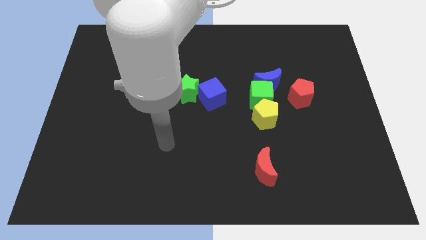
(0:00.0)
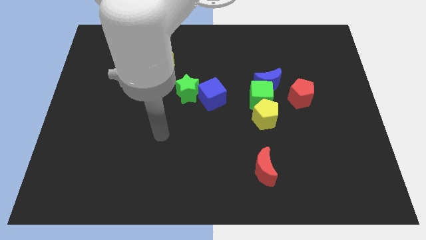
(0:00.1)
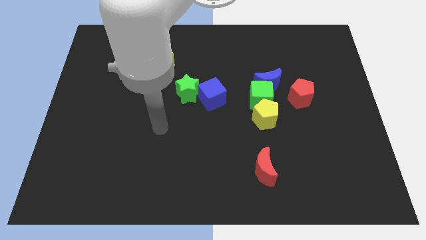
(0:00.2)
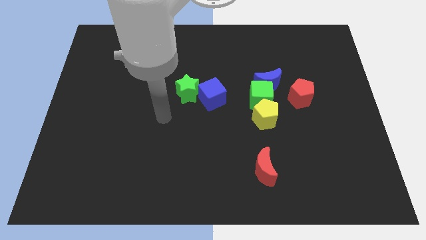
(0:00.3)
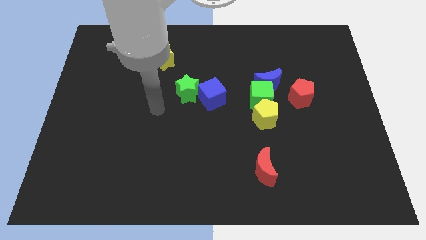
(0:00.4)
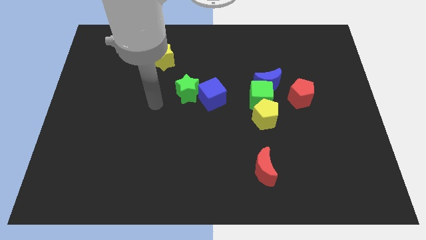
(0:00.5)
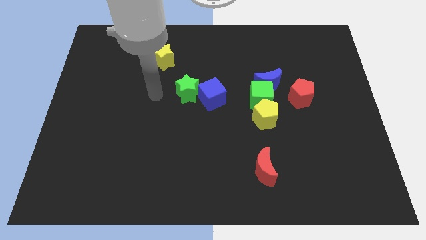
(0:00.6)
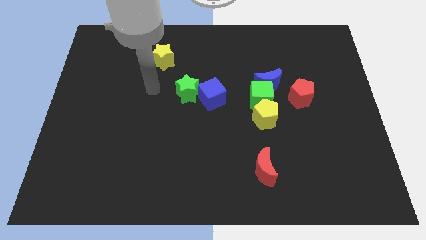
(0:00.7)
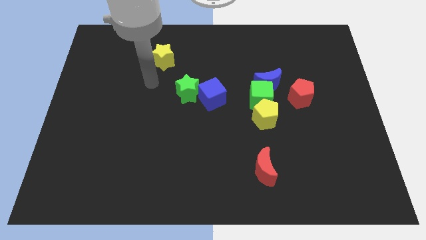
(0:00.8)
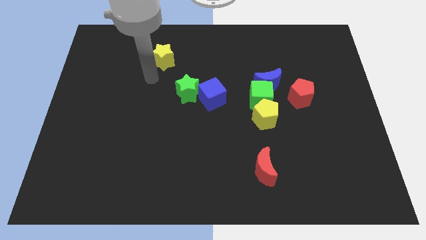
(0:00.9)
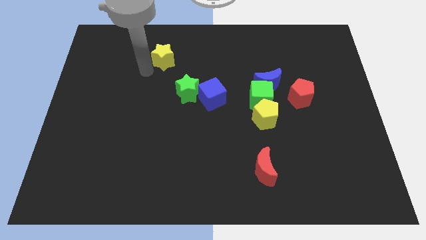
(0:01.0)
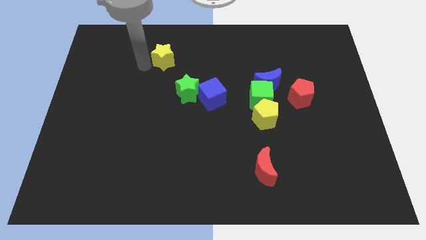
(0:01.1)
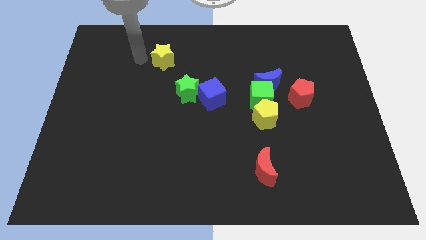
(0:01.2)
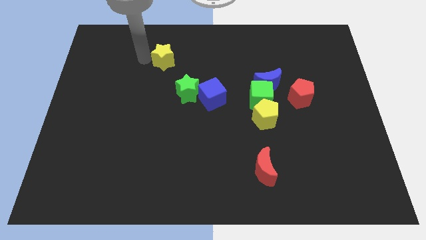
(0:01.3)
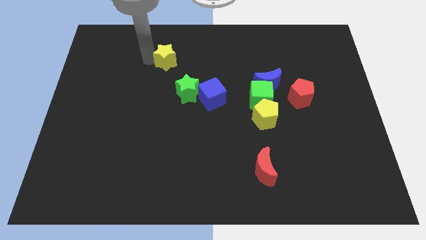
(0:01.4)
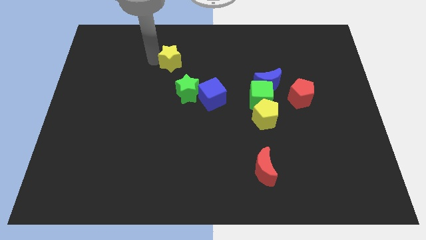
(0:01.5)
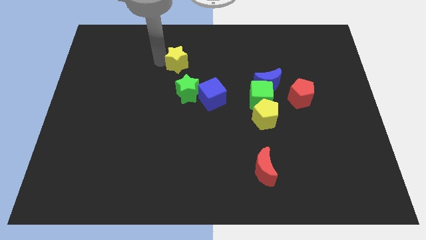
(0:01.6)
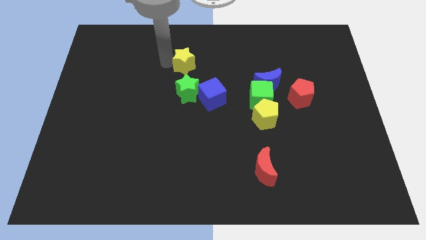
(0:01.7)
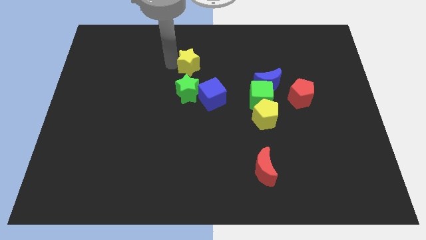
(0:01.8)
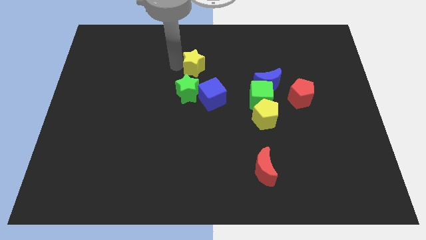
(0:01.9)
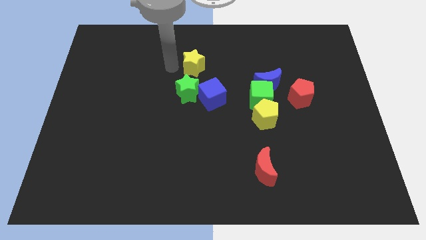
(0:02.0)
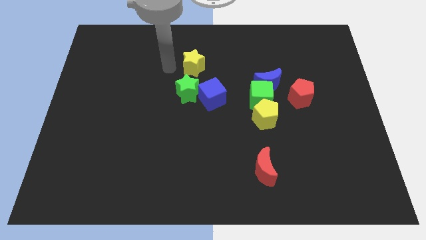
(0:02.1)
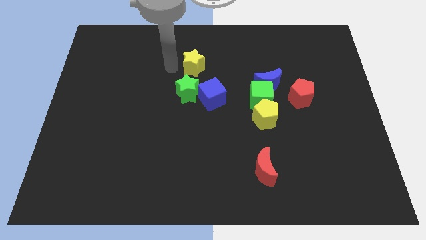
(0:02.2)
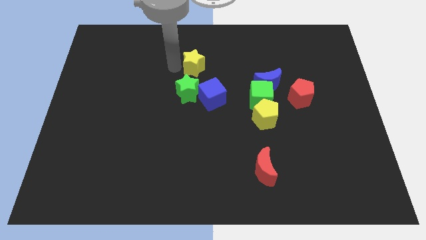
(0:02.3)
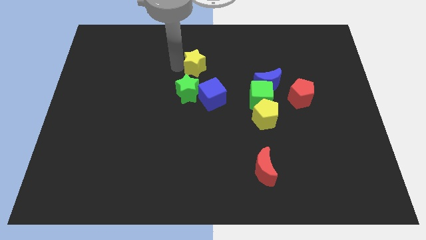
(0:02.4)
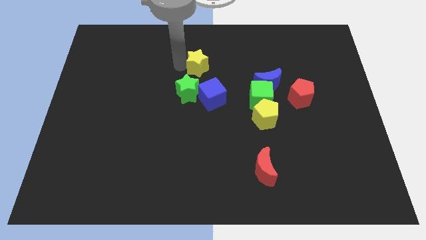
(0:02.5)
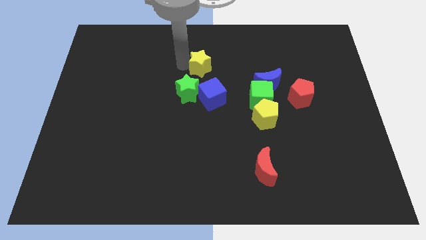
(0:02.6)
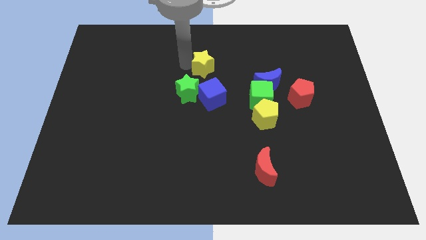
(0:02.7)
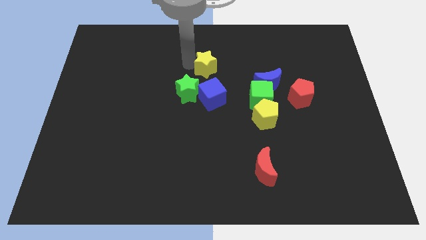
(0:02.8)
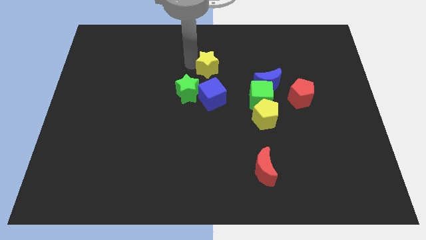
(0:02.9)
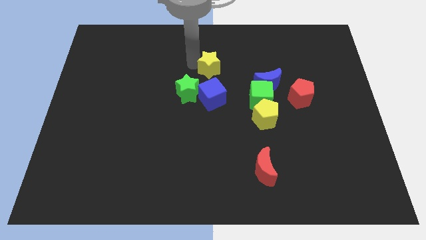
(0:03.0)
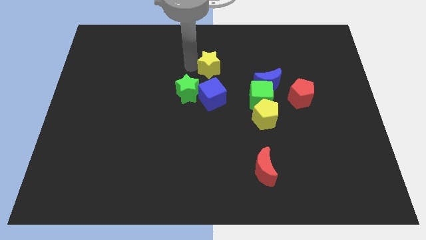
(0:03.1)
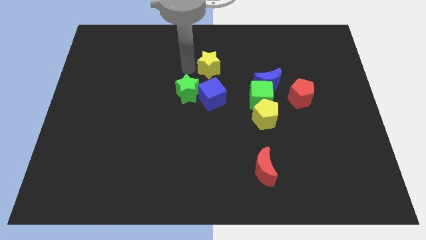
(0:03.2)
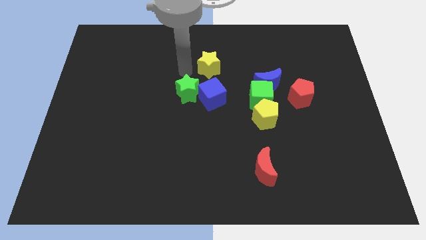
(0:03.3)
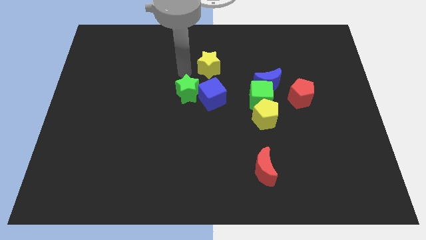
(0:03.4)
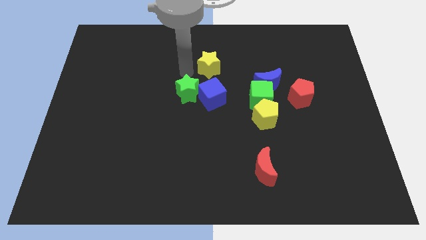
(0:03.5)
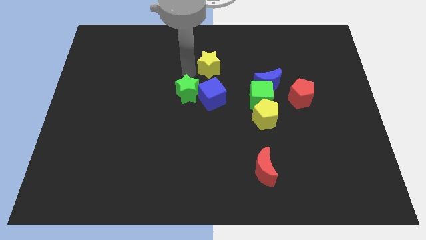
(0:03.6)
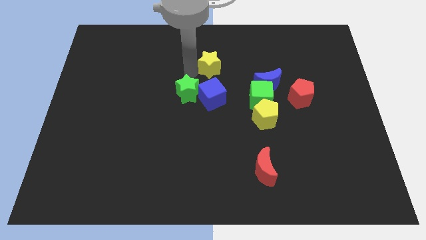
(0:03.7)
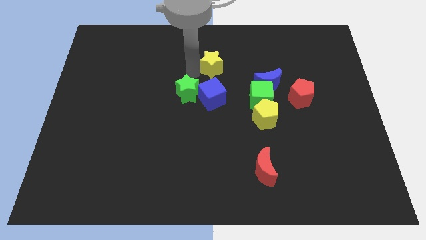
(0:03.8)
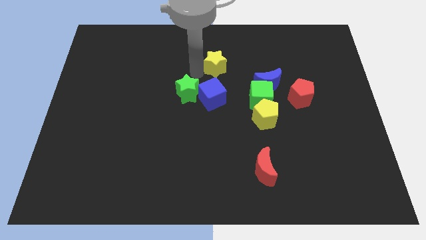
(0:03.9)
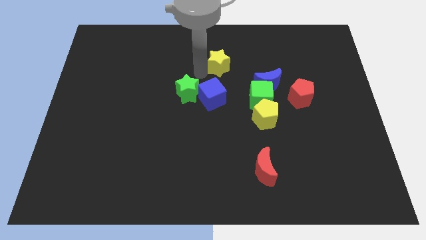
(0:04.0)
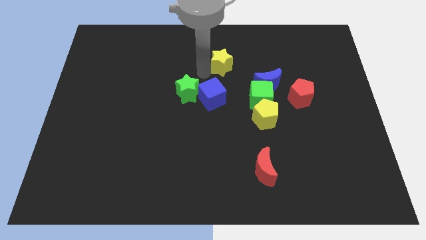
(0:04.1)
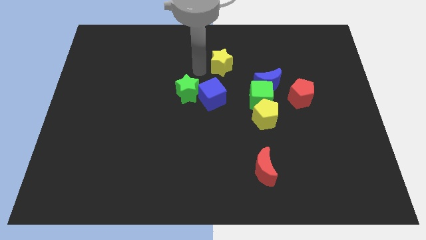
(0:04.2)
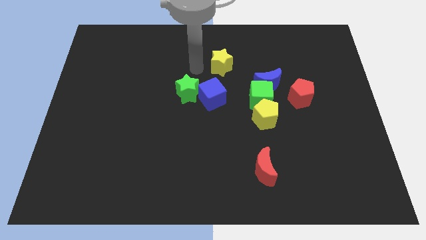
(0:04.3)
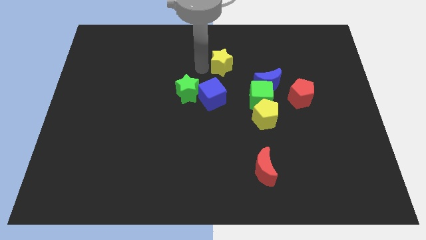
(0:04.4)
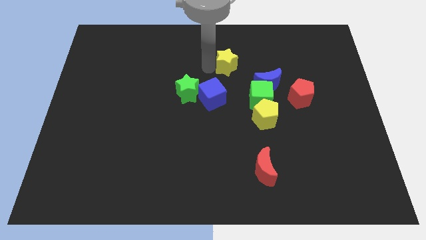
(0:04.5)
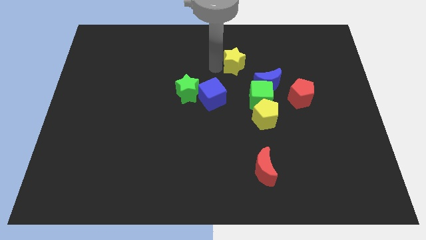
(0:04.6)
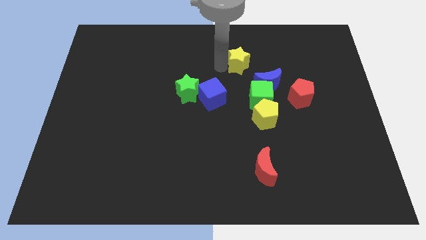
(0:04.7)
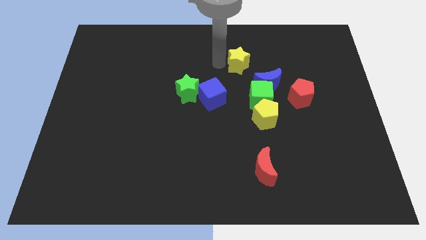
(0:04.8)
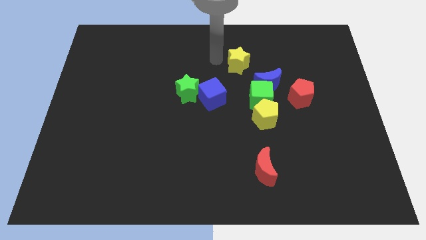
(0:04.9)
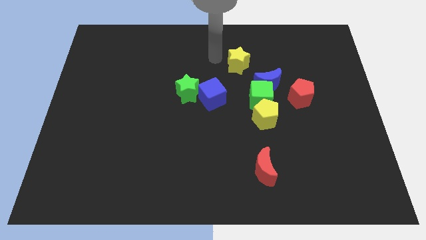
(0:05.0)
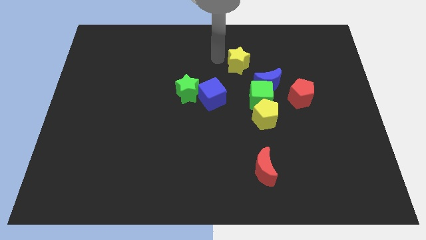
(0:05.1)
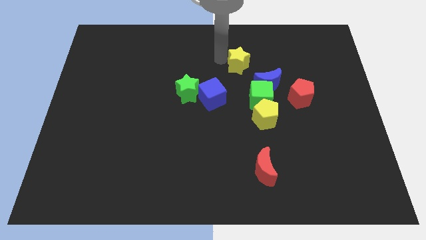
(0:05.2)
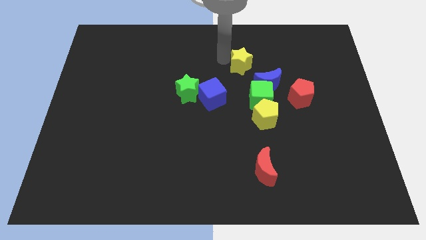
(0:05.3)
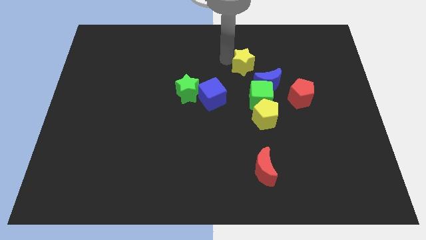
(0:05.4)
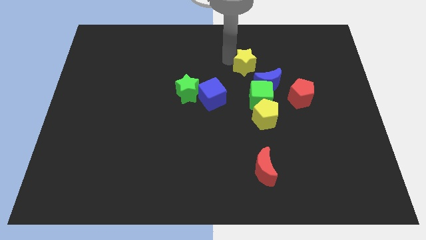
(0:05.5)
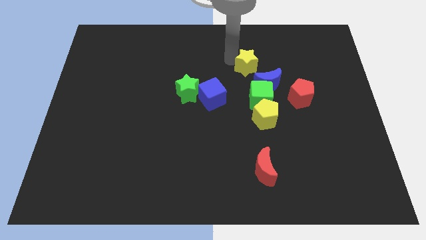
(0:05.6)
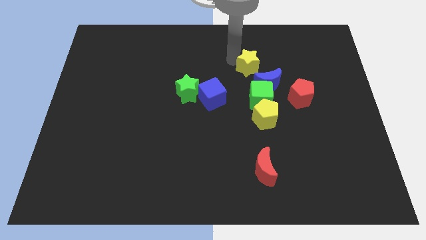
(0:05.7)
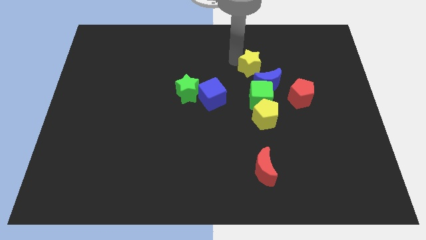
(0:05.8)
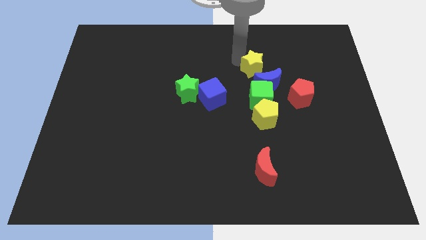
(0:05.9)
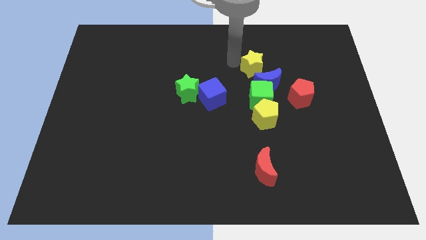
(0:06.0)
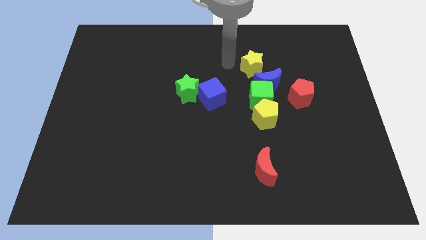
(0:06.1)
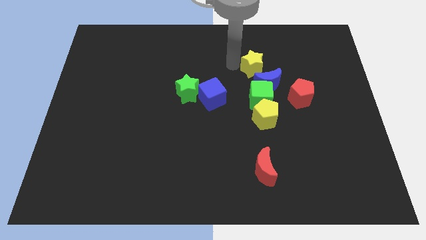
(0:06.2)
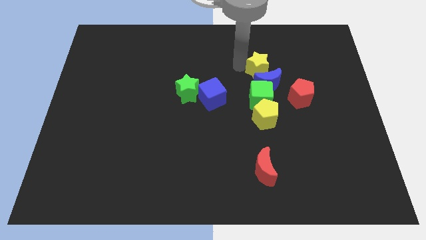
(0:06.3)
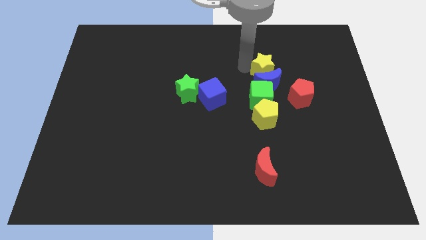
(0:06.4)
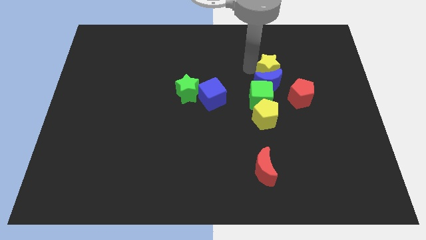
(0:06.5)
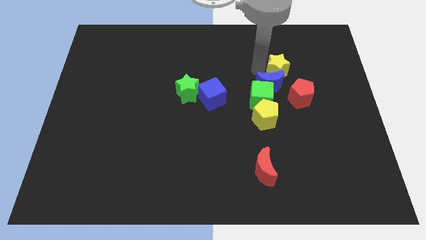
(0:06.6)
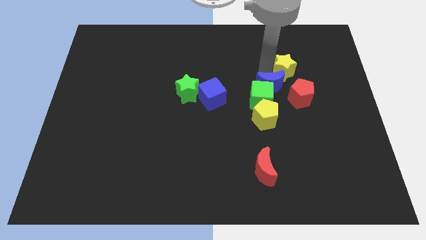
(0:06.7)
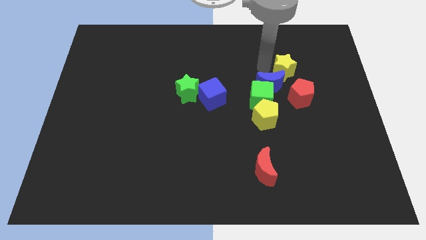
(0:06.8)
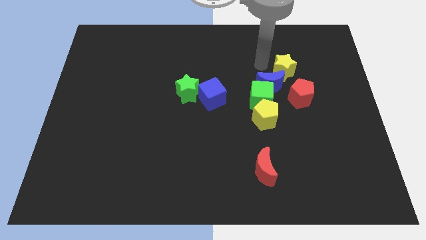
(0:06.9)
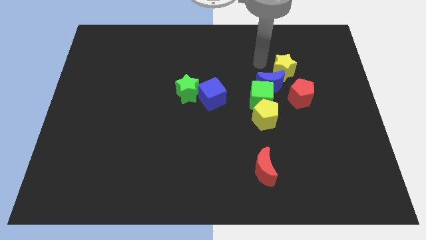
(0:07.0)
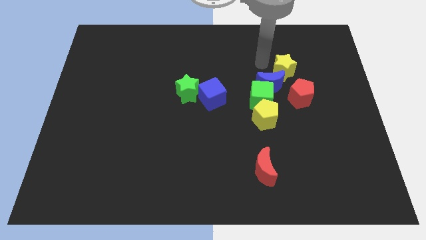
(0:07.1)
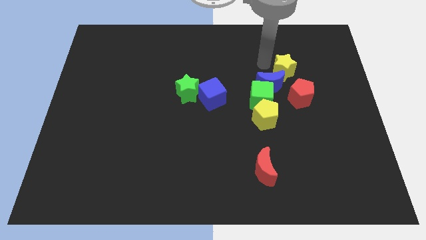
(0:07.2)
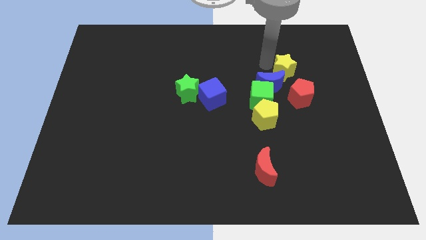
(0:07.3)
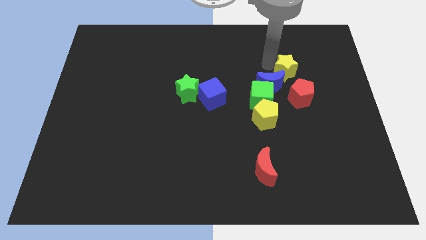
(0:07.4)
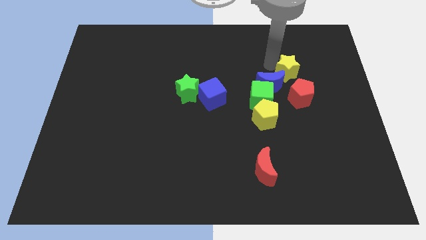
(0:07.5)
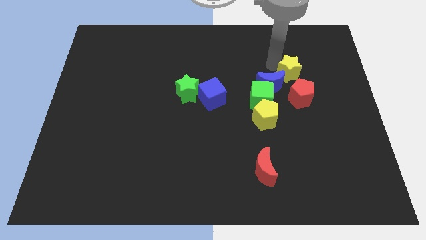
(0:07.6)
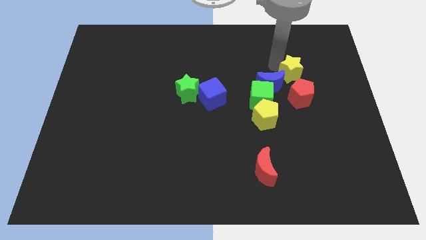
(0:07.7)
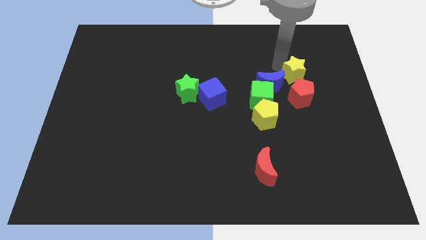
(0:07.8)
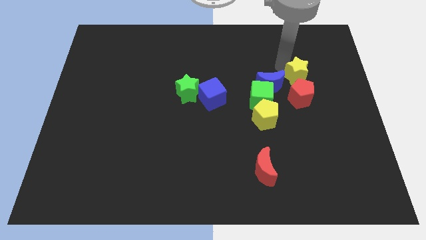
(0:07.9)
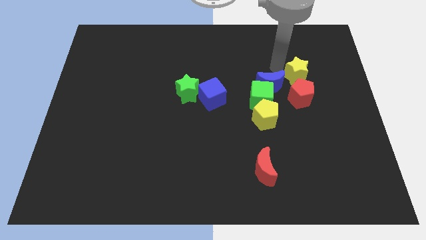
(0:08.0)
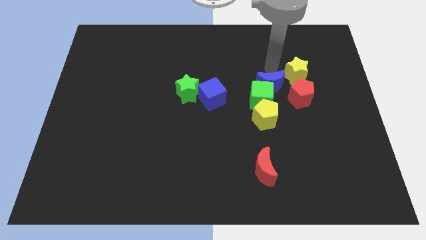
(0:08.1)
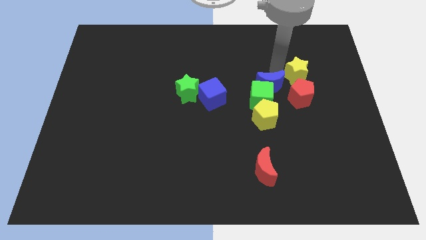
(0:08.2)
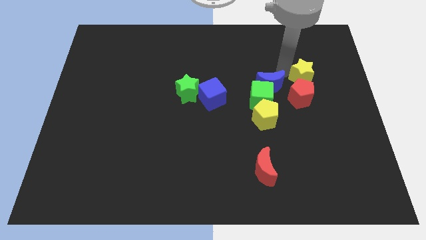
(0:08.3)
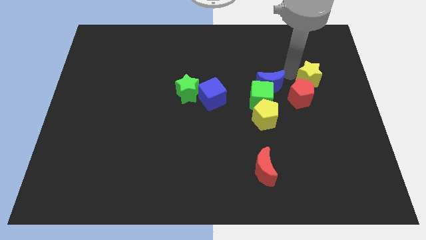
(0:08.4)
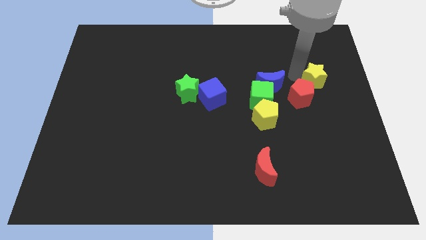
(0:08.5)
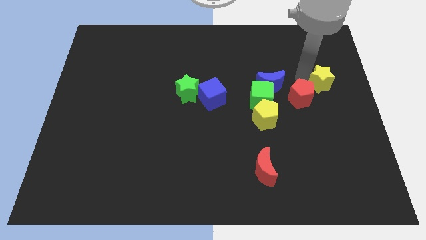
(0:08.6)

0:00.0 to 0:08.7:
push the yellow star to the right side of the board
